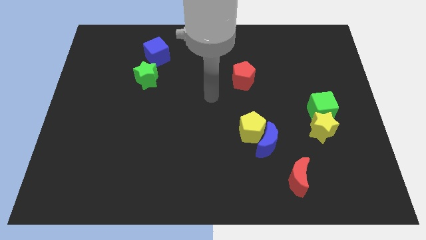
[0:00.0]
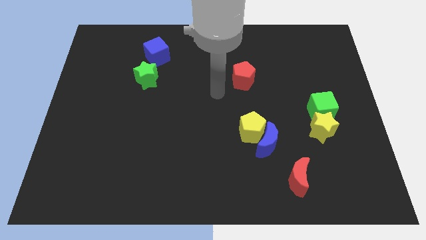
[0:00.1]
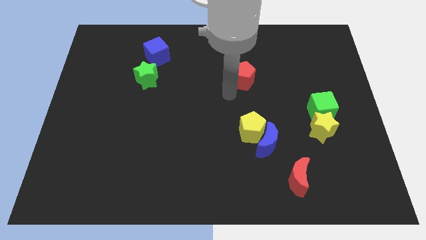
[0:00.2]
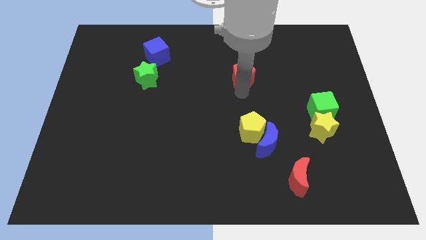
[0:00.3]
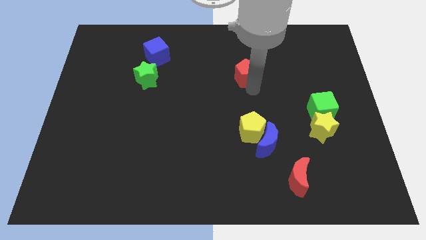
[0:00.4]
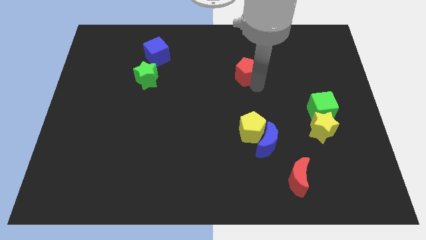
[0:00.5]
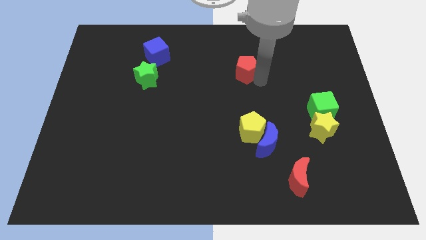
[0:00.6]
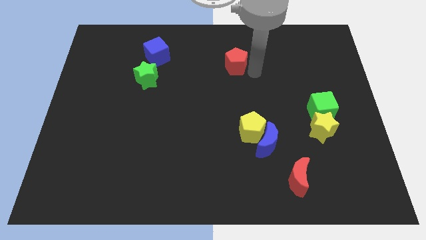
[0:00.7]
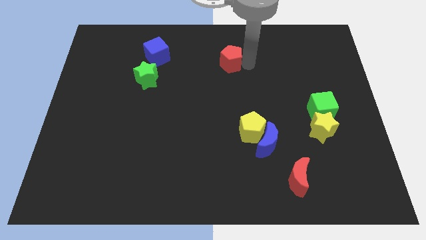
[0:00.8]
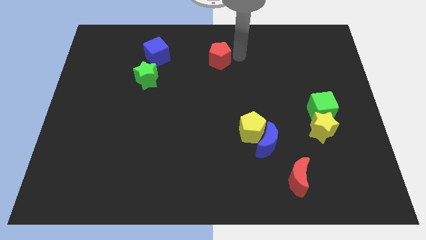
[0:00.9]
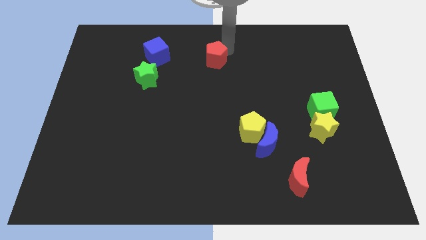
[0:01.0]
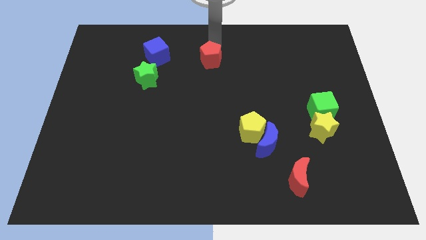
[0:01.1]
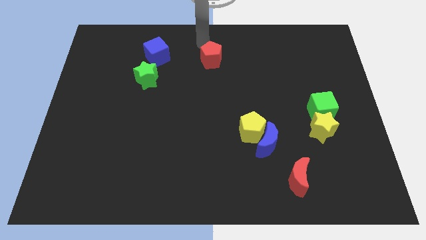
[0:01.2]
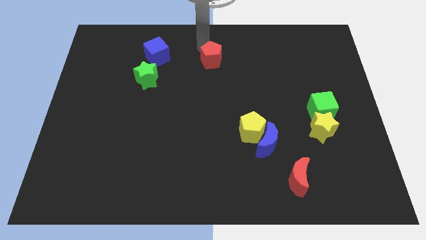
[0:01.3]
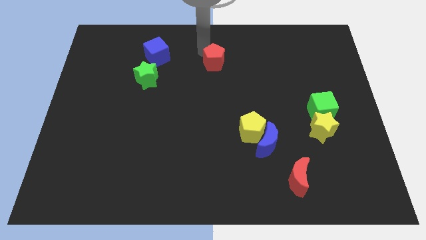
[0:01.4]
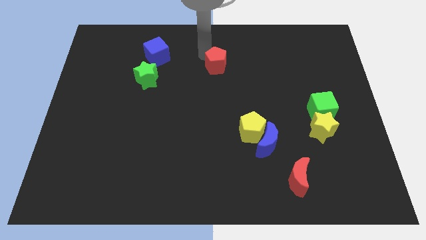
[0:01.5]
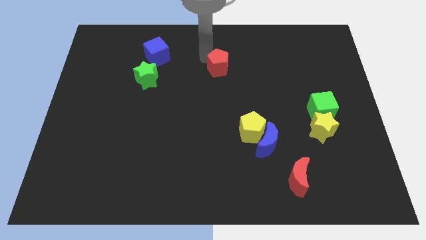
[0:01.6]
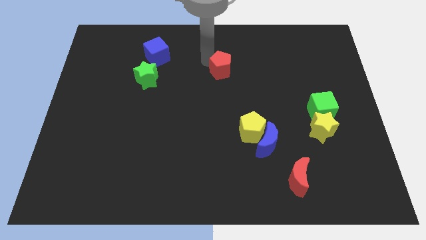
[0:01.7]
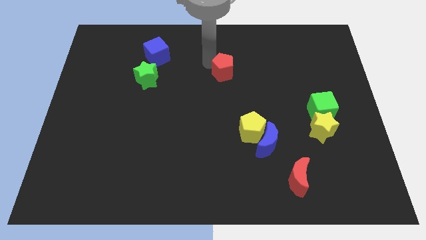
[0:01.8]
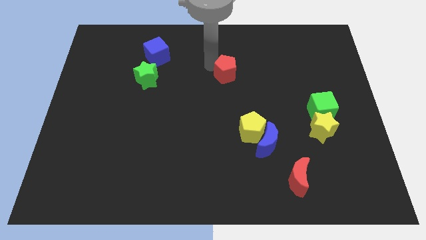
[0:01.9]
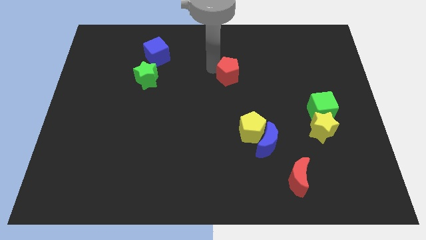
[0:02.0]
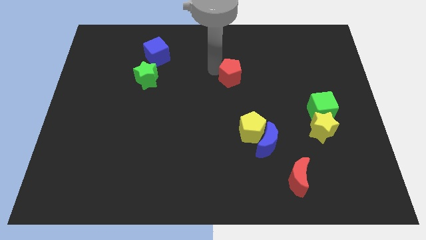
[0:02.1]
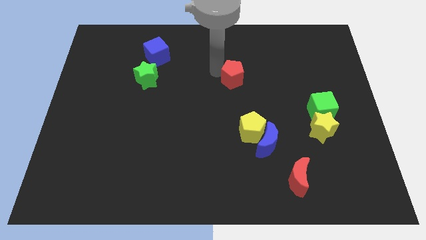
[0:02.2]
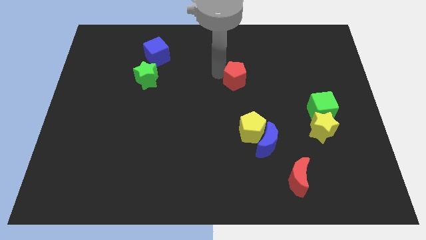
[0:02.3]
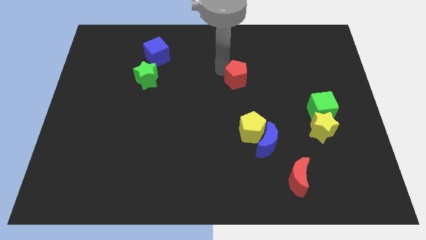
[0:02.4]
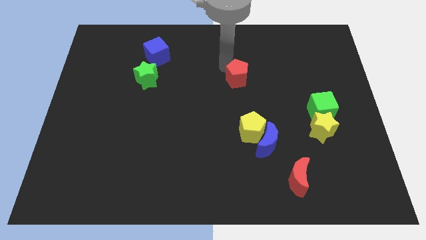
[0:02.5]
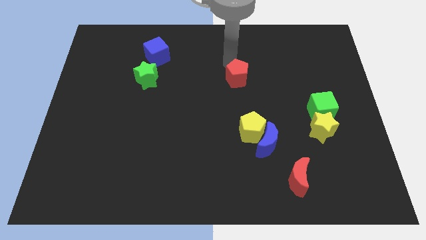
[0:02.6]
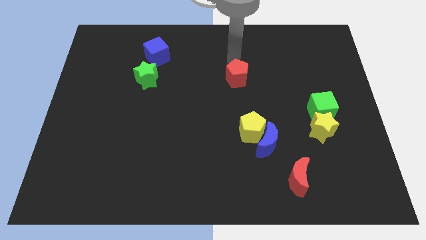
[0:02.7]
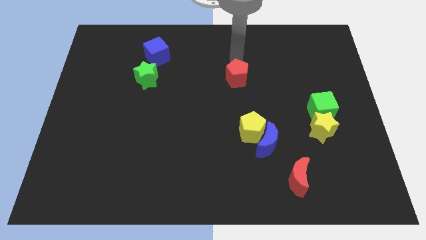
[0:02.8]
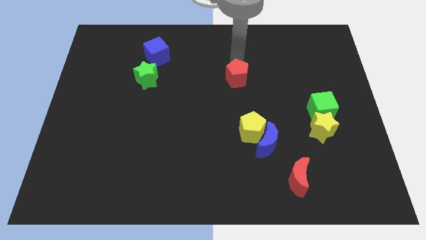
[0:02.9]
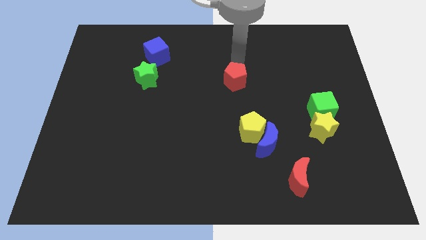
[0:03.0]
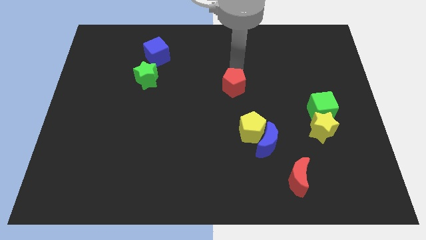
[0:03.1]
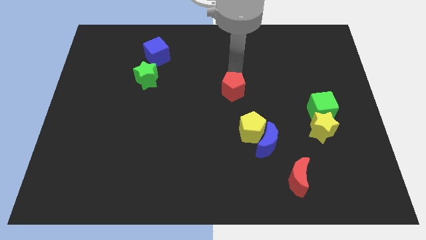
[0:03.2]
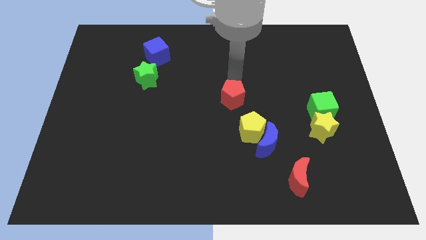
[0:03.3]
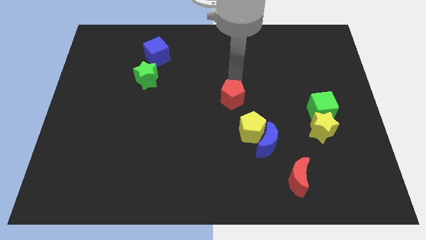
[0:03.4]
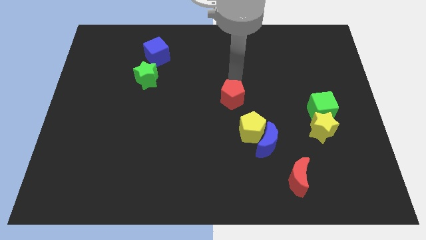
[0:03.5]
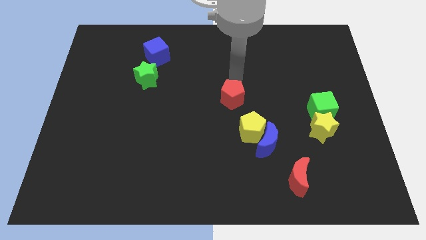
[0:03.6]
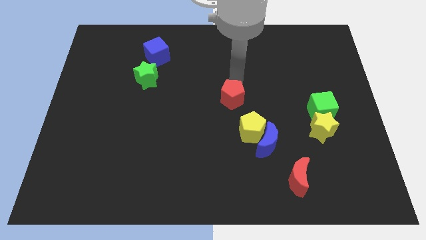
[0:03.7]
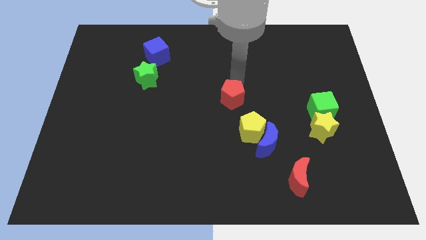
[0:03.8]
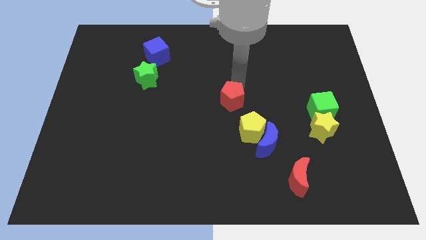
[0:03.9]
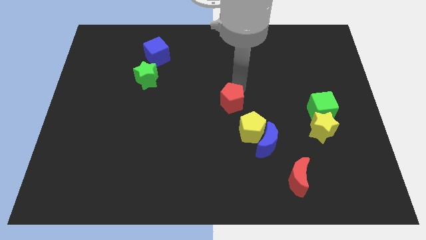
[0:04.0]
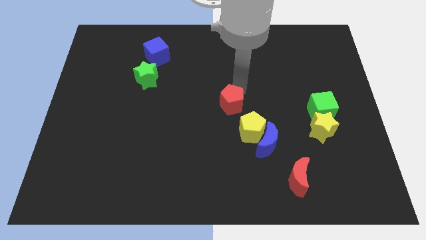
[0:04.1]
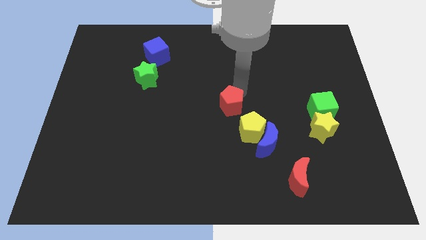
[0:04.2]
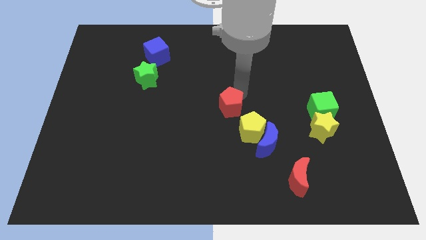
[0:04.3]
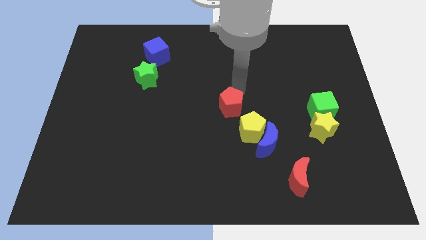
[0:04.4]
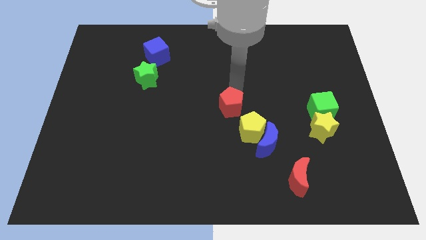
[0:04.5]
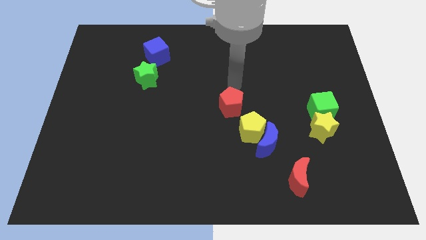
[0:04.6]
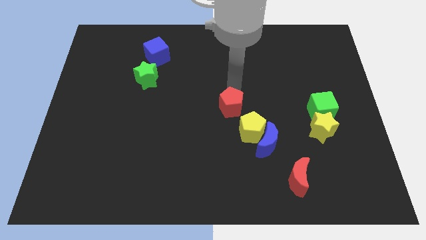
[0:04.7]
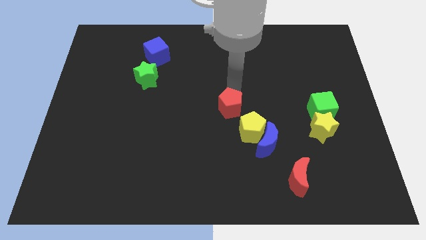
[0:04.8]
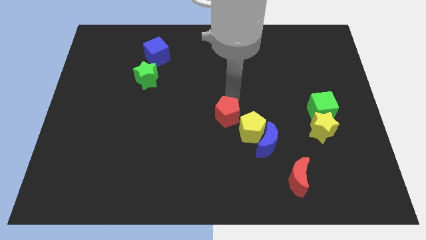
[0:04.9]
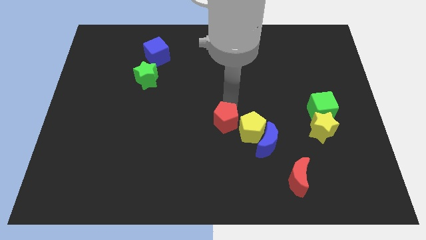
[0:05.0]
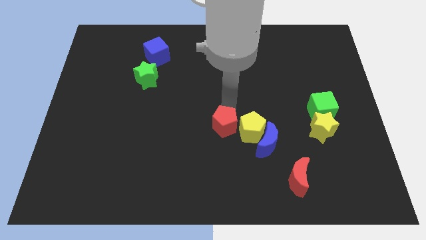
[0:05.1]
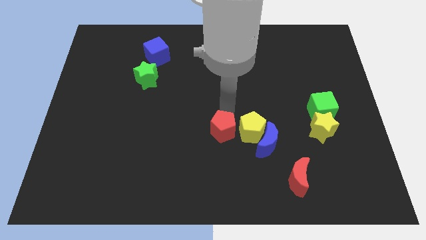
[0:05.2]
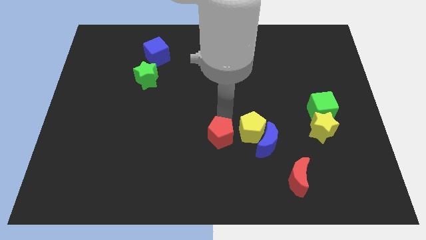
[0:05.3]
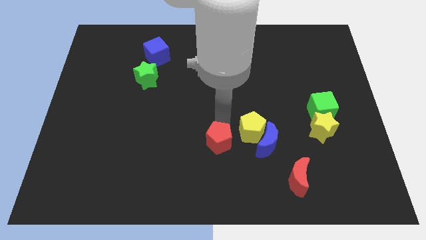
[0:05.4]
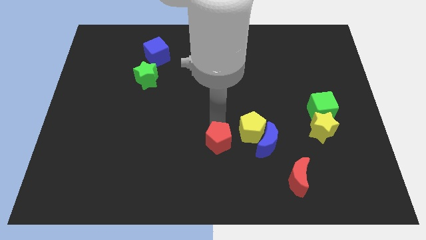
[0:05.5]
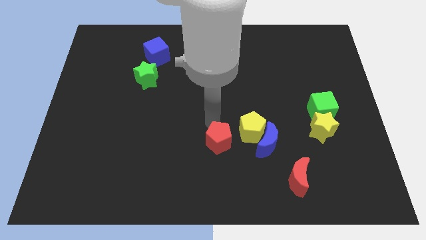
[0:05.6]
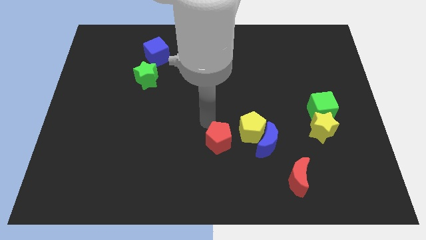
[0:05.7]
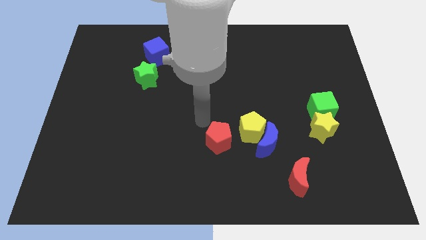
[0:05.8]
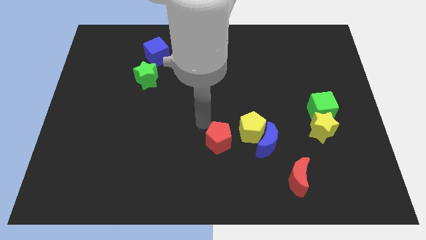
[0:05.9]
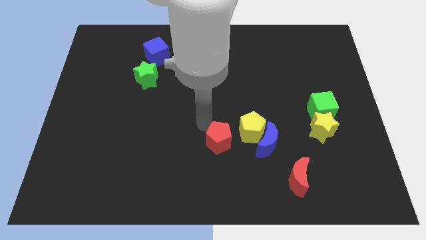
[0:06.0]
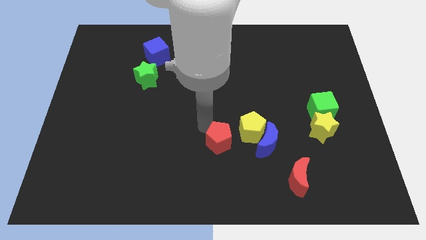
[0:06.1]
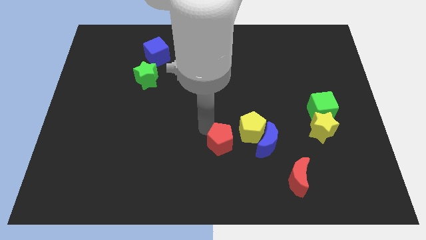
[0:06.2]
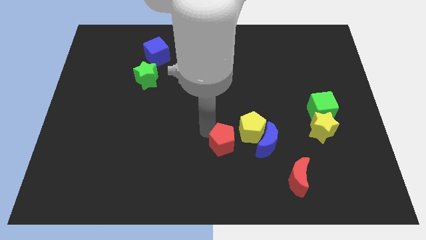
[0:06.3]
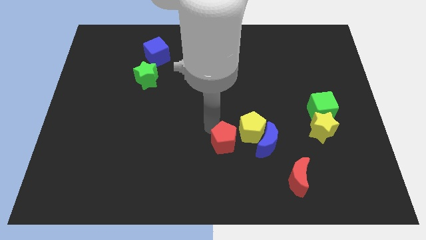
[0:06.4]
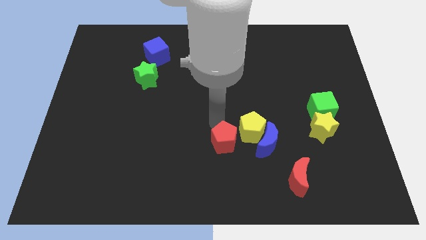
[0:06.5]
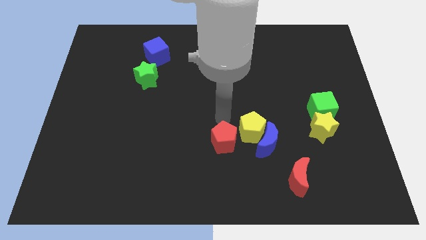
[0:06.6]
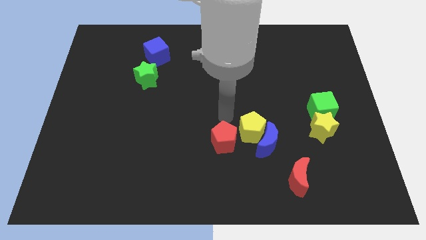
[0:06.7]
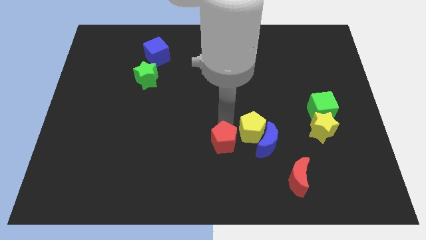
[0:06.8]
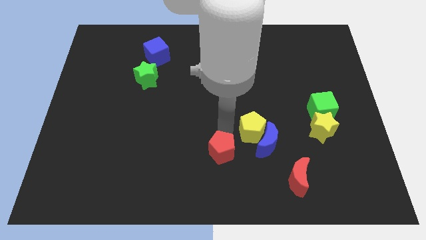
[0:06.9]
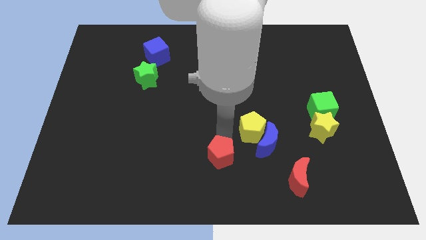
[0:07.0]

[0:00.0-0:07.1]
move the red pentagon to the bottom side
